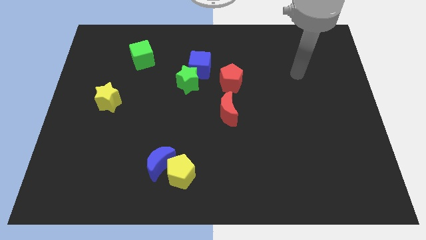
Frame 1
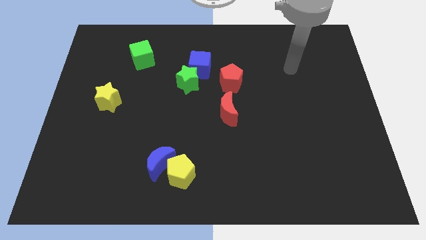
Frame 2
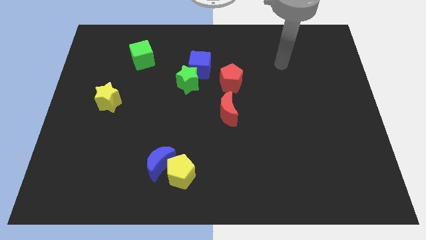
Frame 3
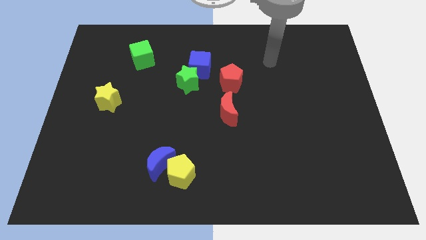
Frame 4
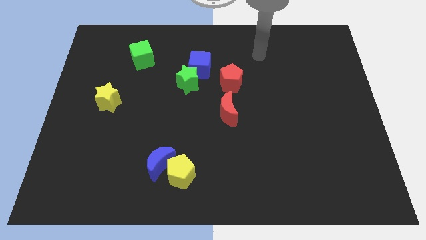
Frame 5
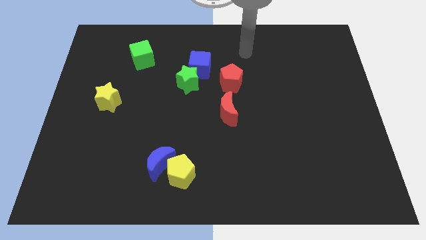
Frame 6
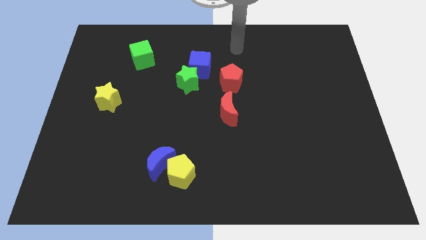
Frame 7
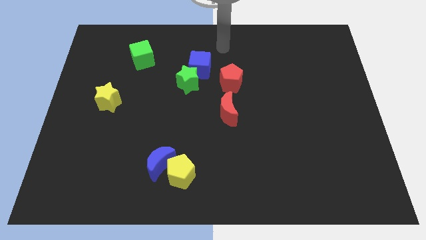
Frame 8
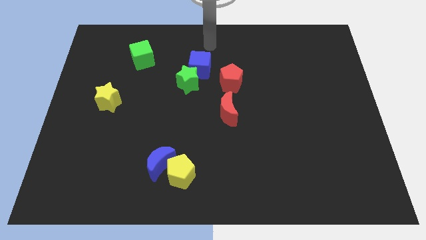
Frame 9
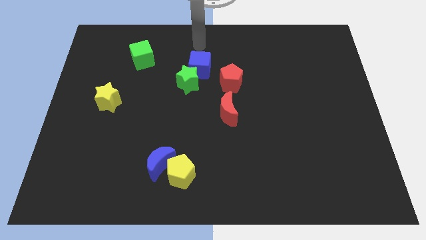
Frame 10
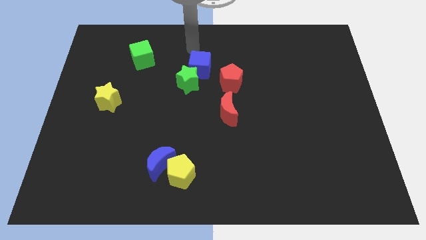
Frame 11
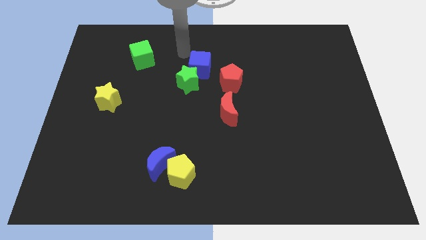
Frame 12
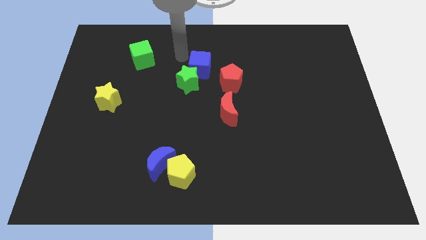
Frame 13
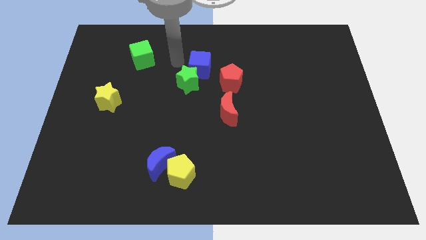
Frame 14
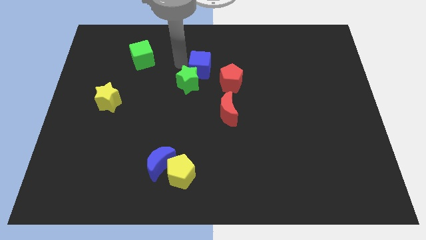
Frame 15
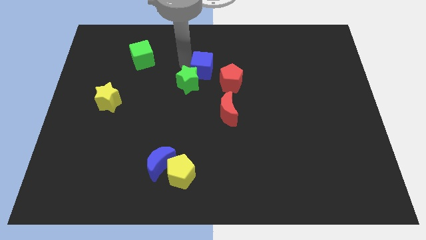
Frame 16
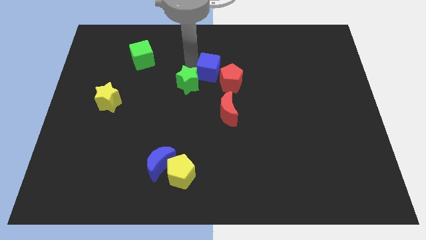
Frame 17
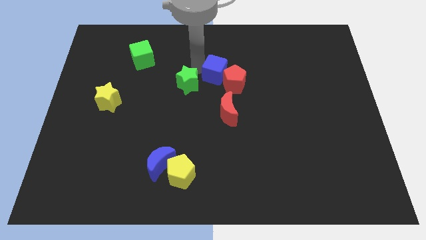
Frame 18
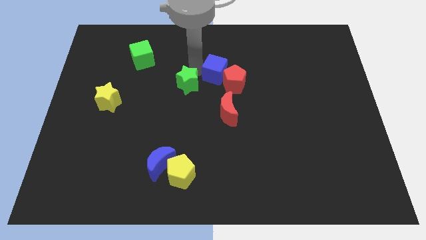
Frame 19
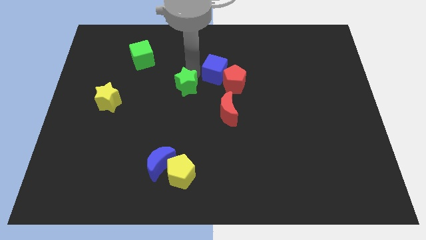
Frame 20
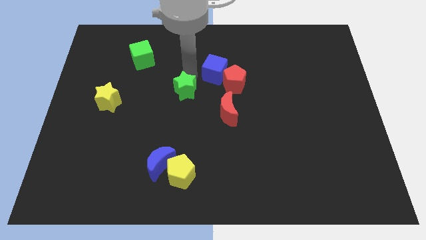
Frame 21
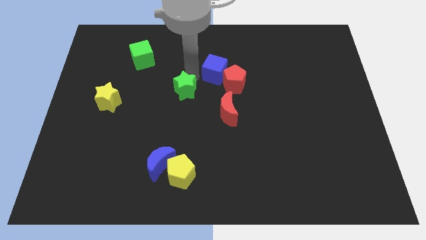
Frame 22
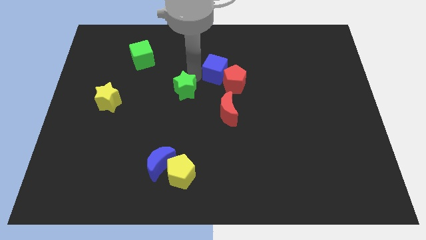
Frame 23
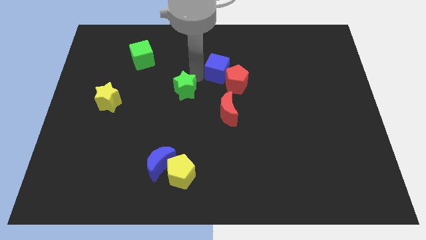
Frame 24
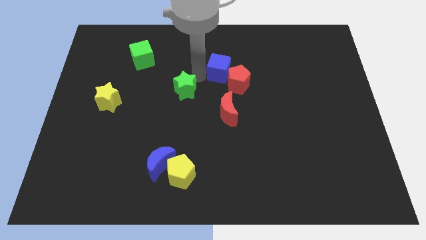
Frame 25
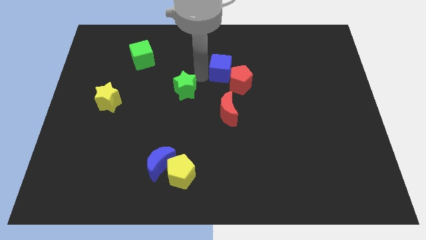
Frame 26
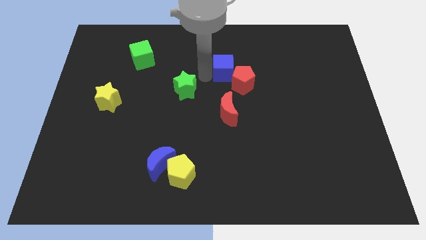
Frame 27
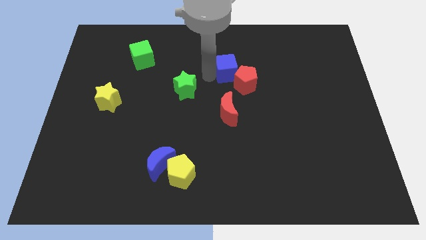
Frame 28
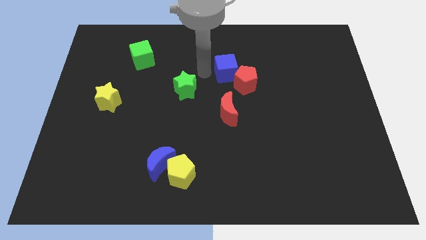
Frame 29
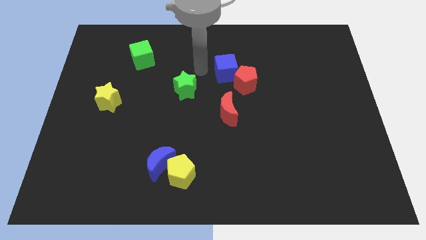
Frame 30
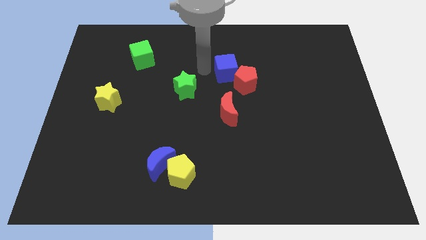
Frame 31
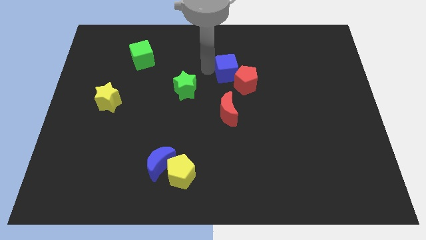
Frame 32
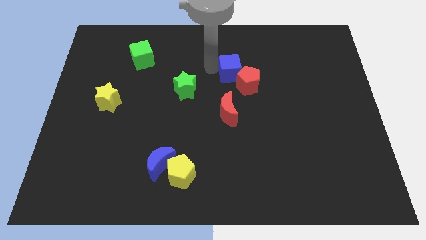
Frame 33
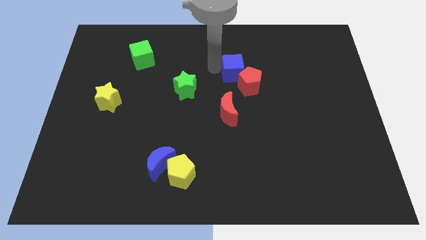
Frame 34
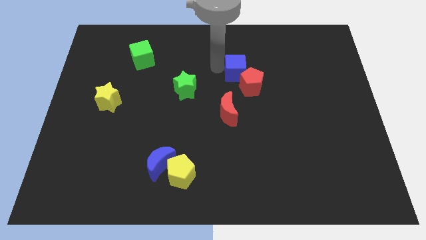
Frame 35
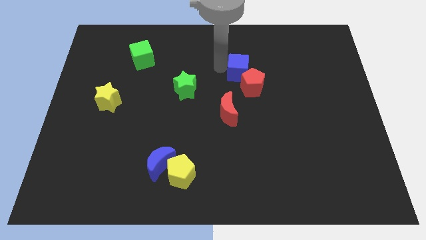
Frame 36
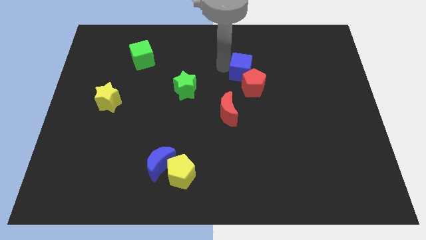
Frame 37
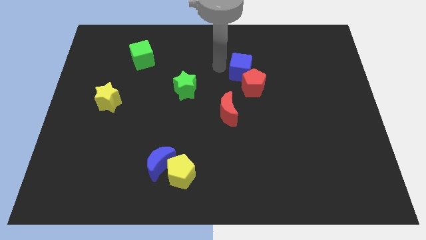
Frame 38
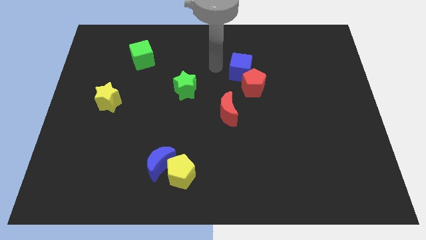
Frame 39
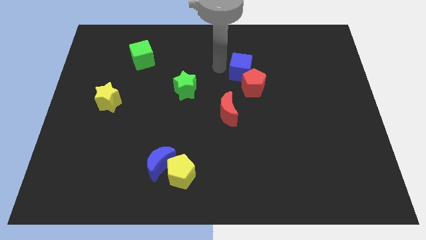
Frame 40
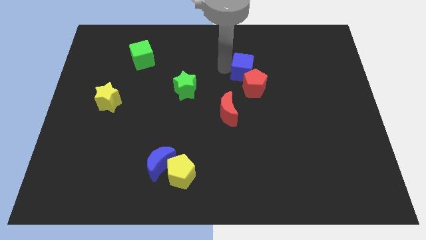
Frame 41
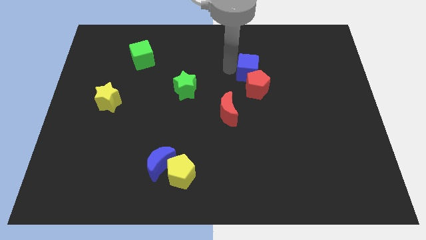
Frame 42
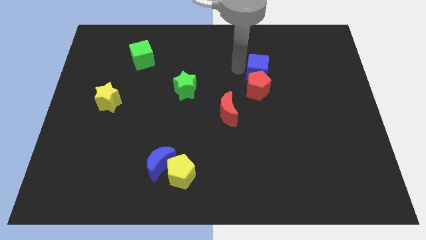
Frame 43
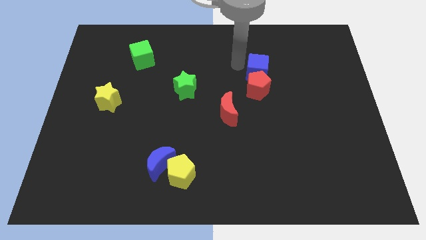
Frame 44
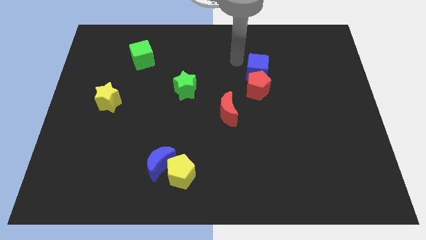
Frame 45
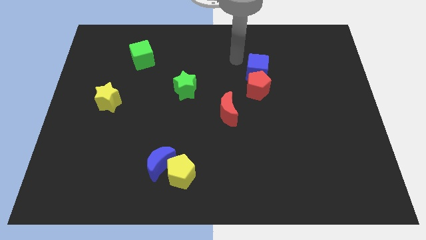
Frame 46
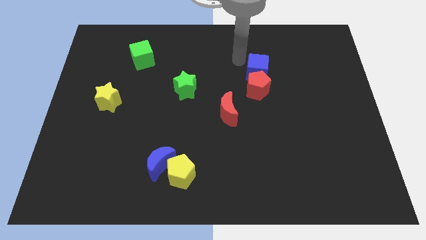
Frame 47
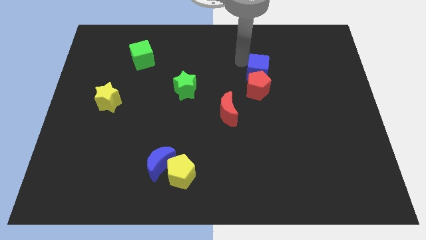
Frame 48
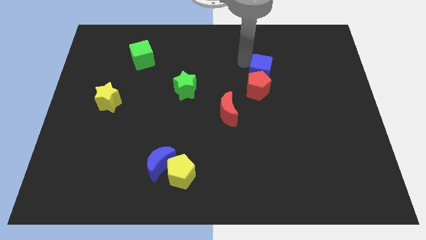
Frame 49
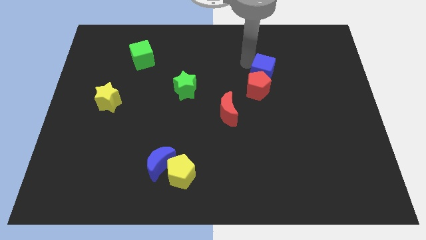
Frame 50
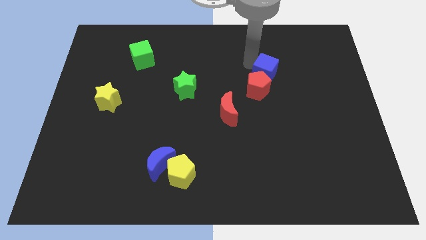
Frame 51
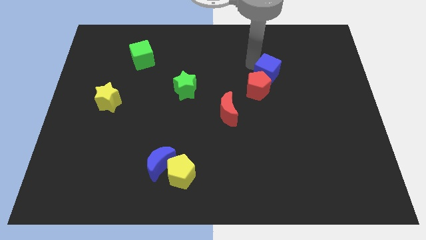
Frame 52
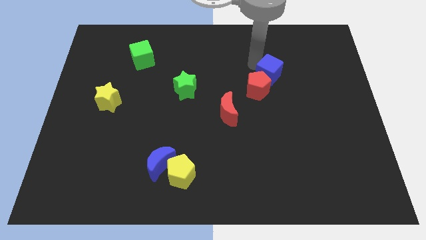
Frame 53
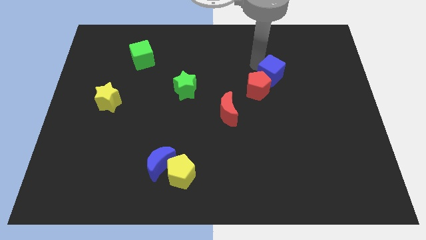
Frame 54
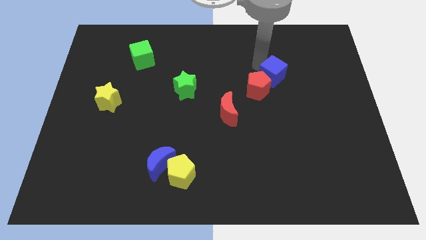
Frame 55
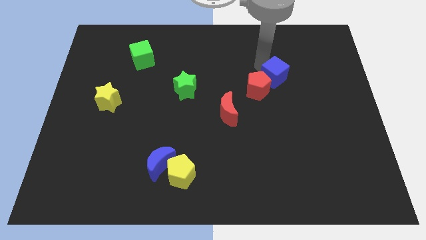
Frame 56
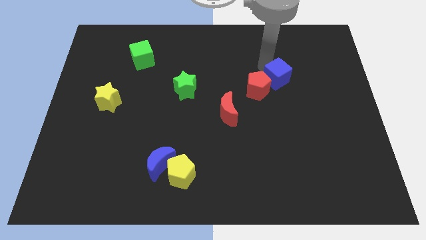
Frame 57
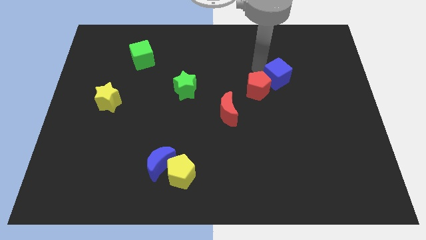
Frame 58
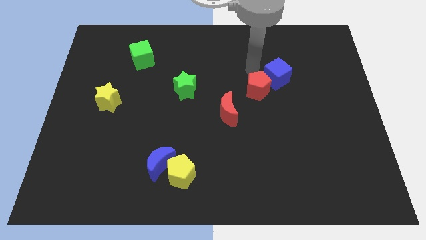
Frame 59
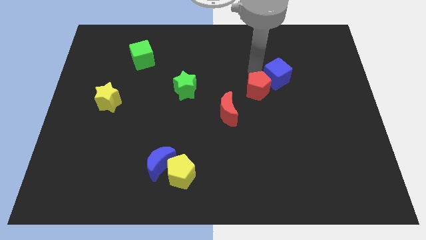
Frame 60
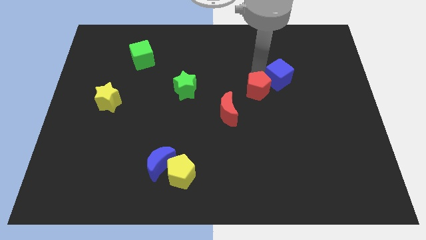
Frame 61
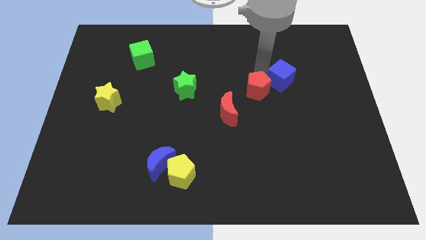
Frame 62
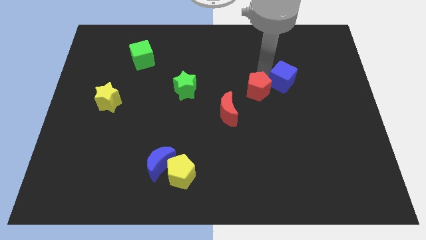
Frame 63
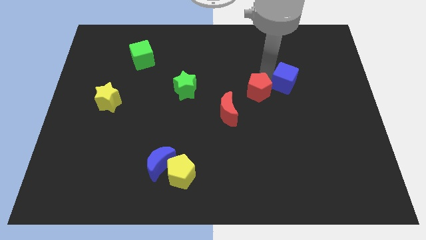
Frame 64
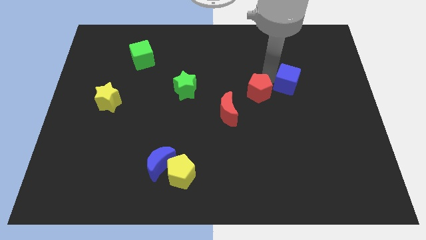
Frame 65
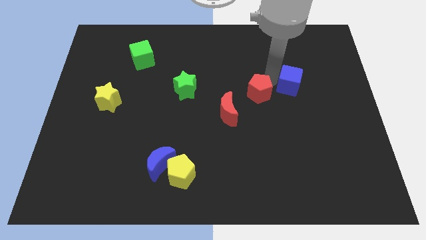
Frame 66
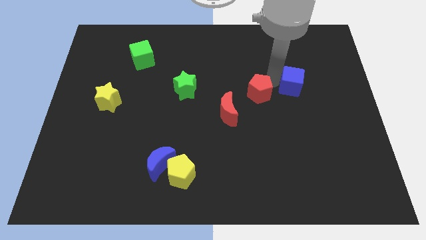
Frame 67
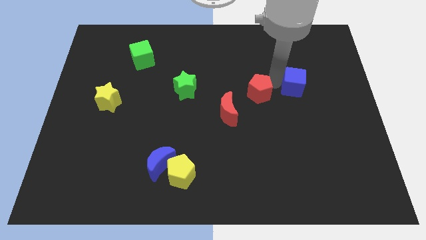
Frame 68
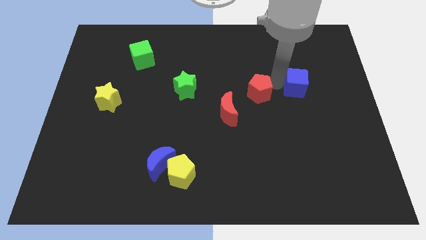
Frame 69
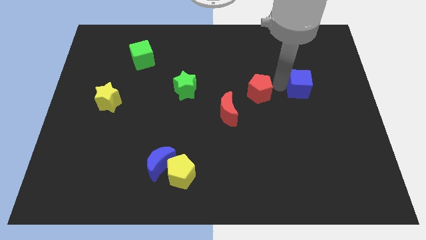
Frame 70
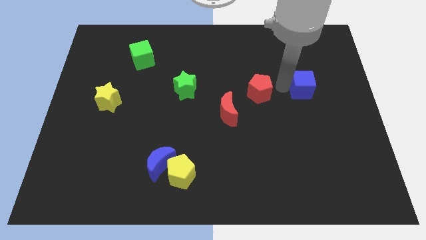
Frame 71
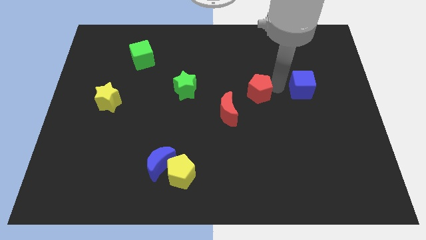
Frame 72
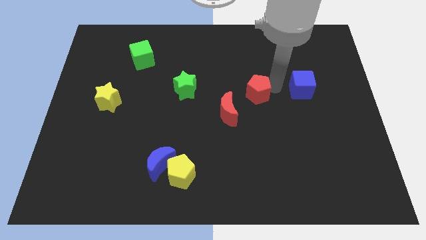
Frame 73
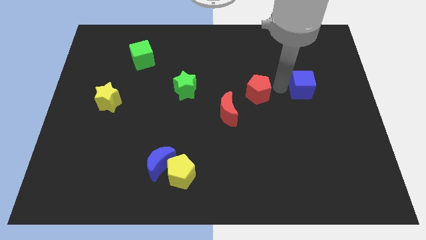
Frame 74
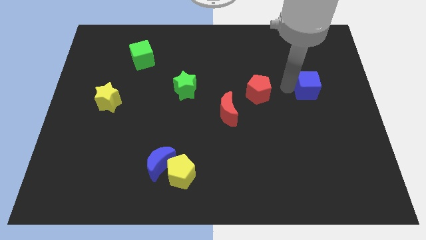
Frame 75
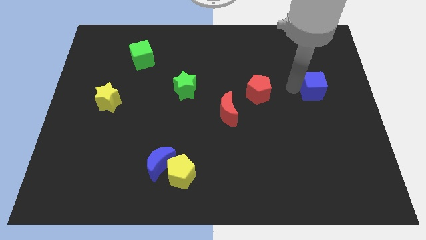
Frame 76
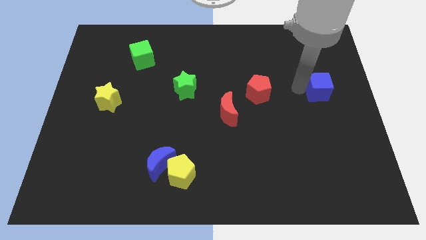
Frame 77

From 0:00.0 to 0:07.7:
slide the blue cube to the right side
